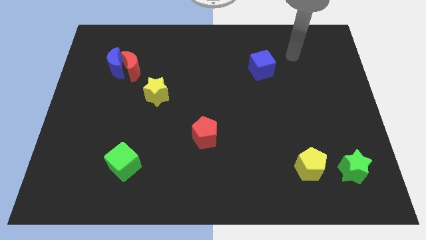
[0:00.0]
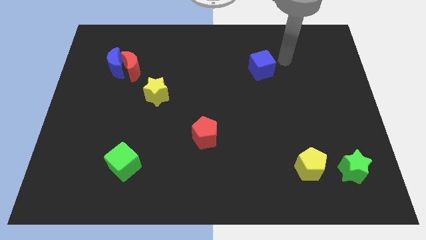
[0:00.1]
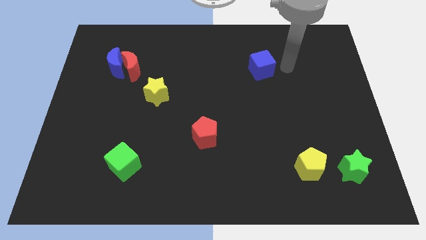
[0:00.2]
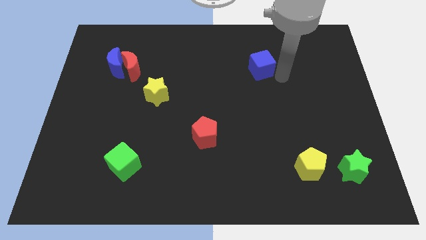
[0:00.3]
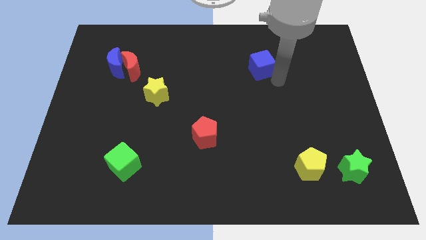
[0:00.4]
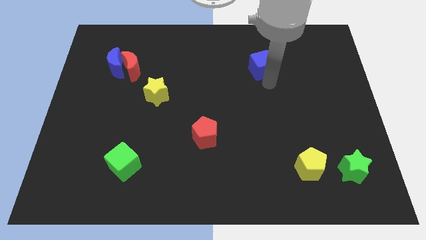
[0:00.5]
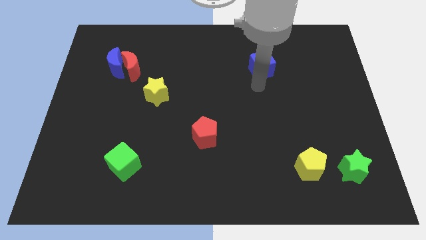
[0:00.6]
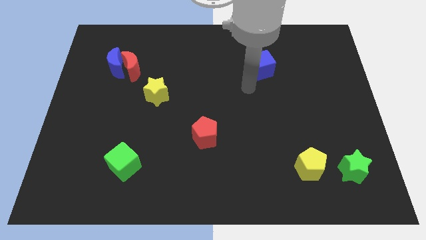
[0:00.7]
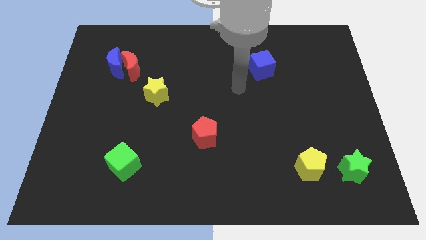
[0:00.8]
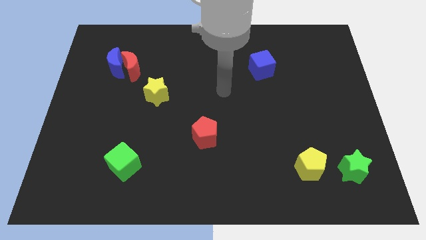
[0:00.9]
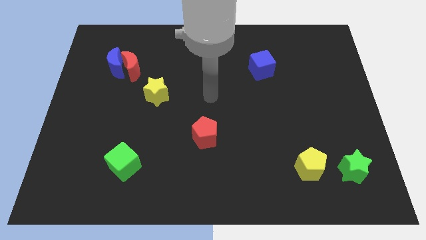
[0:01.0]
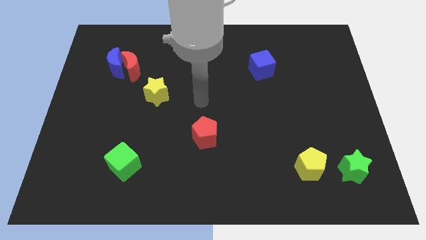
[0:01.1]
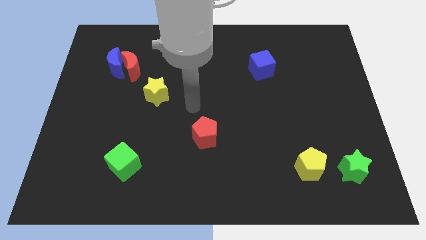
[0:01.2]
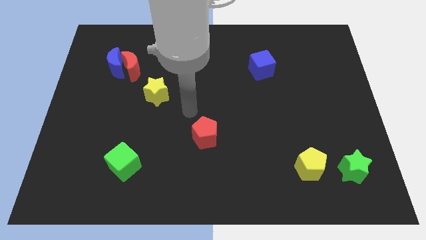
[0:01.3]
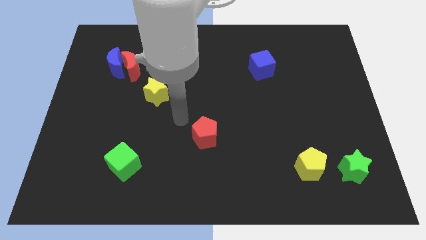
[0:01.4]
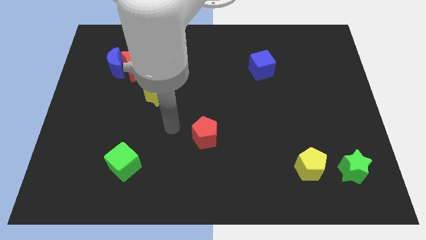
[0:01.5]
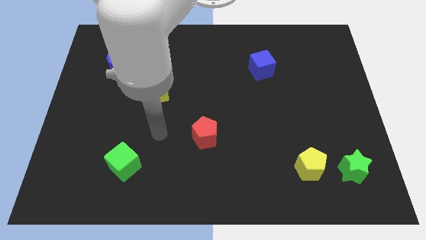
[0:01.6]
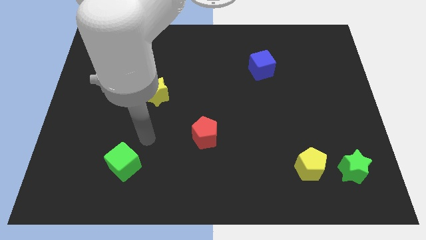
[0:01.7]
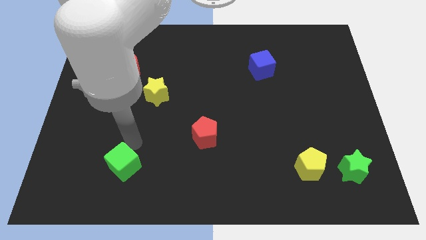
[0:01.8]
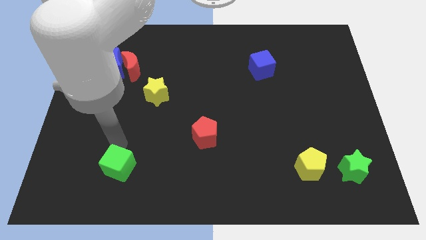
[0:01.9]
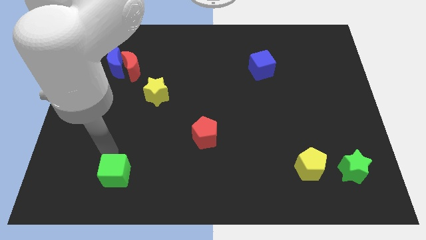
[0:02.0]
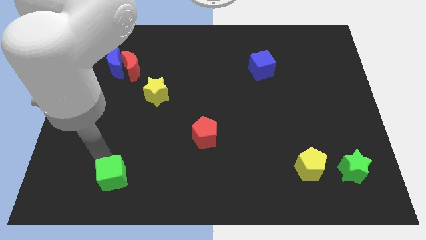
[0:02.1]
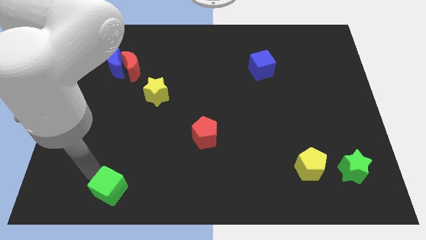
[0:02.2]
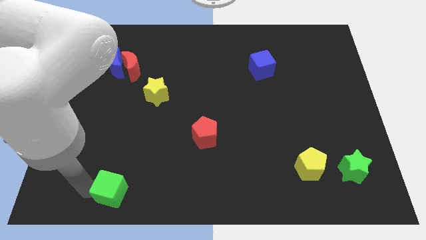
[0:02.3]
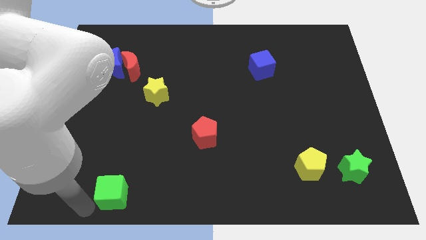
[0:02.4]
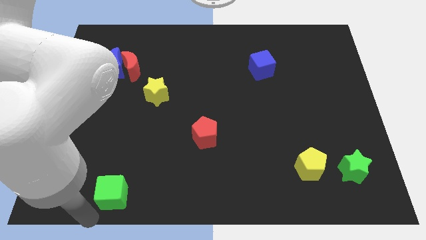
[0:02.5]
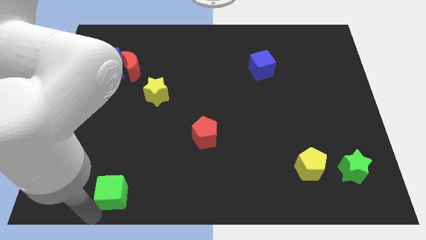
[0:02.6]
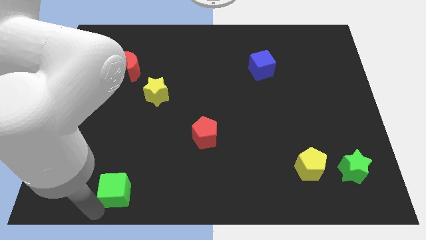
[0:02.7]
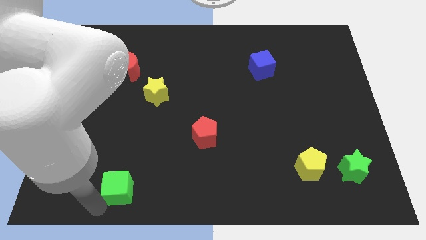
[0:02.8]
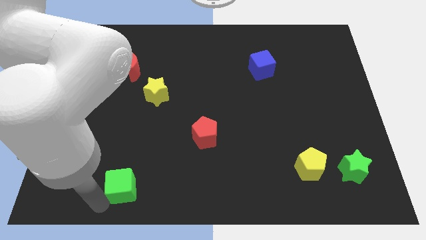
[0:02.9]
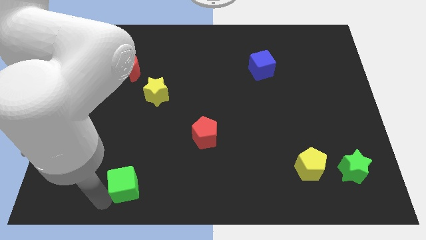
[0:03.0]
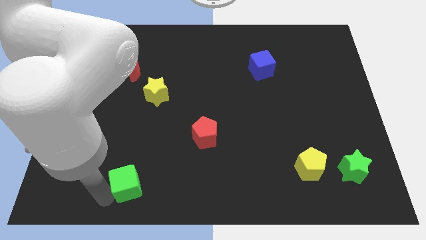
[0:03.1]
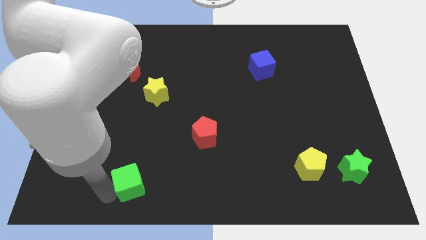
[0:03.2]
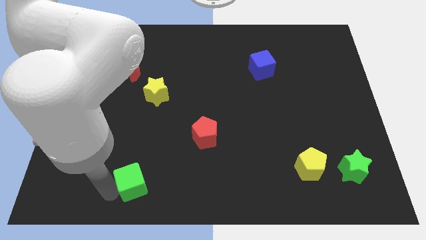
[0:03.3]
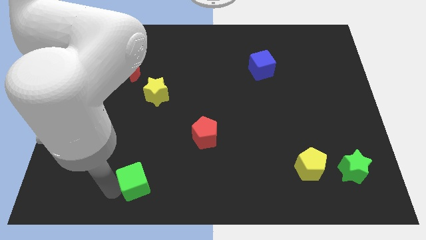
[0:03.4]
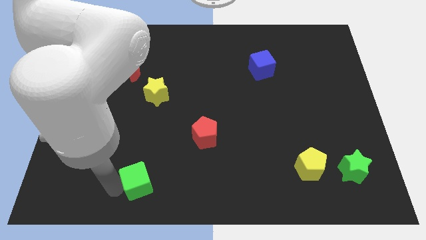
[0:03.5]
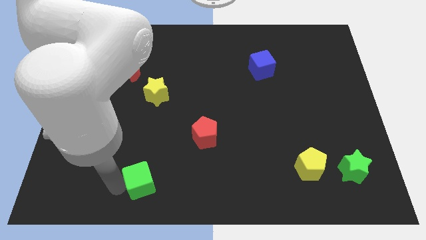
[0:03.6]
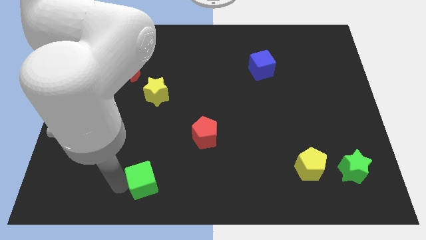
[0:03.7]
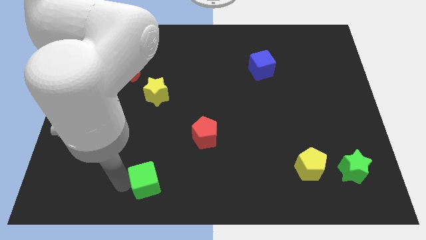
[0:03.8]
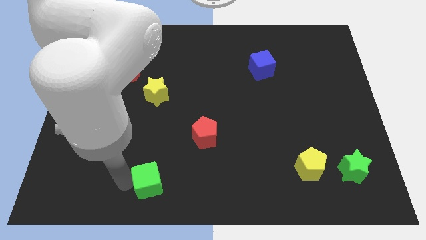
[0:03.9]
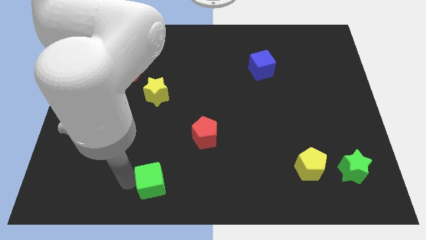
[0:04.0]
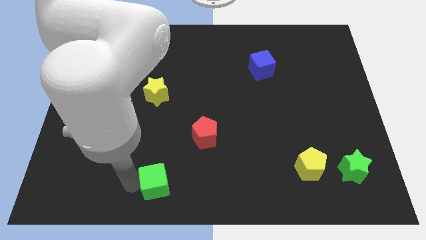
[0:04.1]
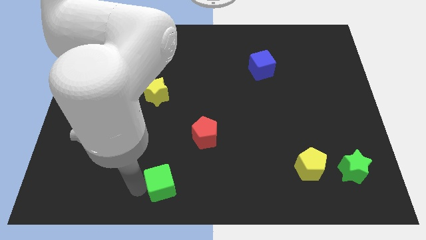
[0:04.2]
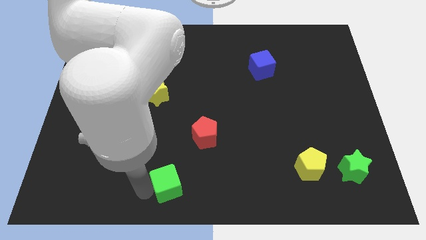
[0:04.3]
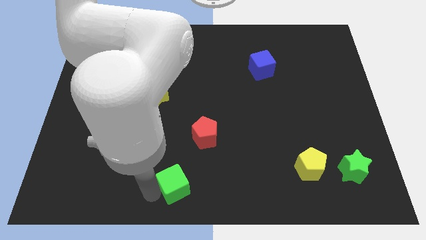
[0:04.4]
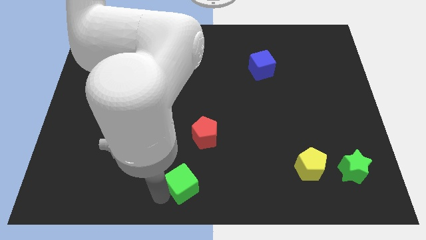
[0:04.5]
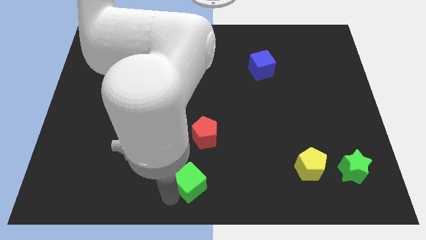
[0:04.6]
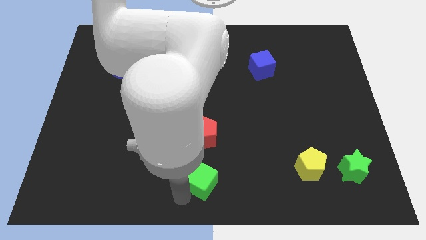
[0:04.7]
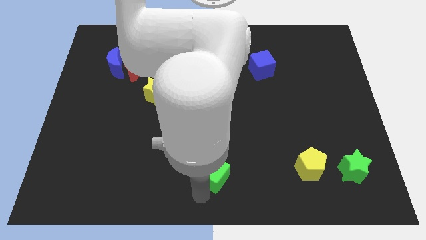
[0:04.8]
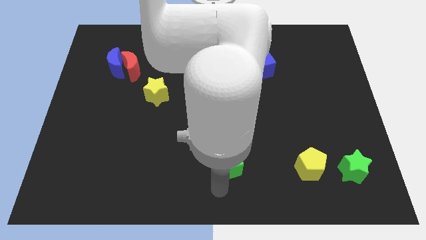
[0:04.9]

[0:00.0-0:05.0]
slide the green cube to the right

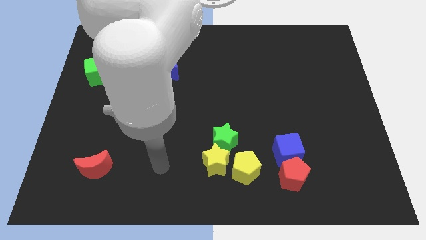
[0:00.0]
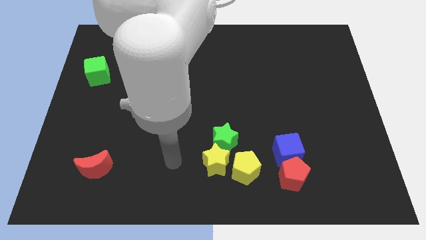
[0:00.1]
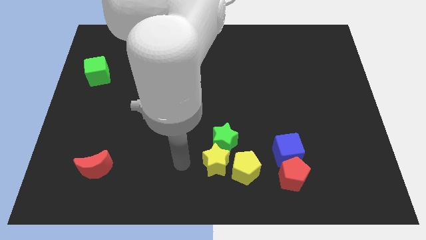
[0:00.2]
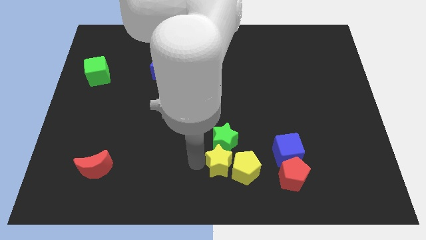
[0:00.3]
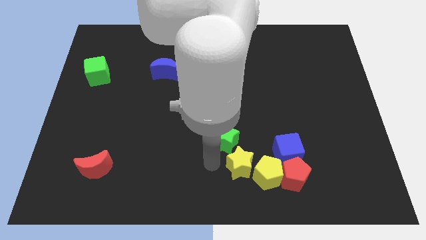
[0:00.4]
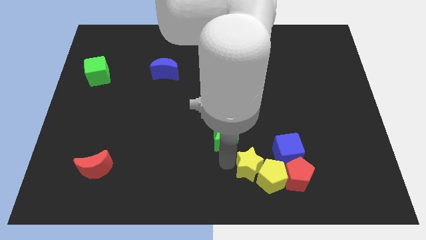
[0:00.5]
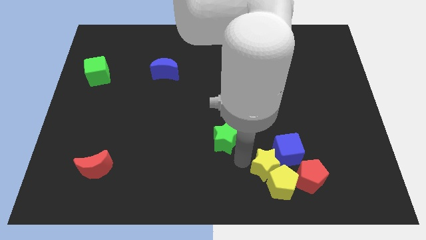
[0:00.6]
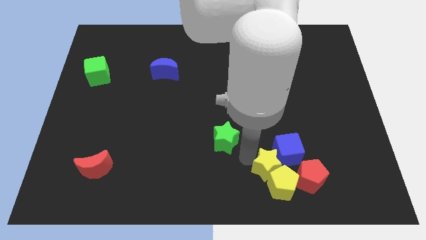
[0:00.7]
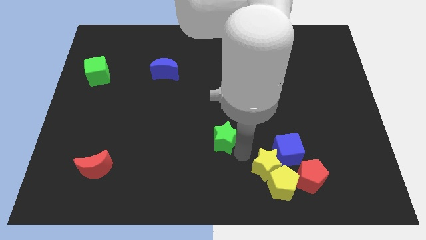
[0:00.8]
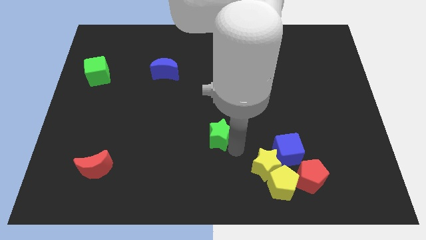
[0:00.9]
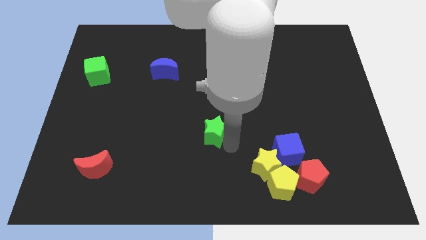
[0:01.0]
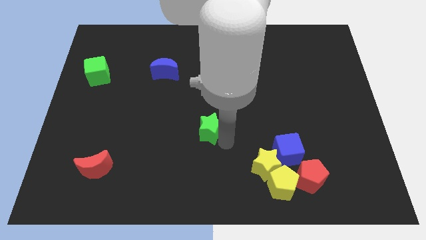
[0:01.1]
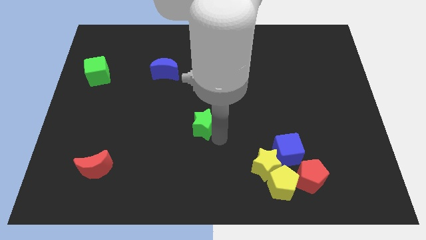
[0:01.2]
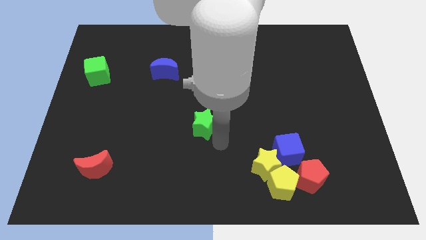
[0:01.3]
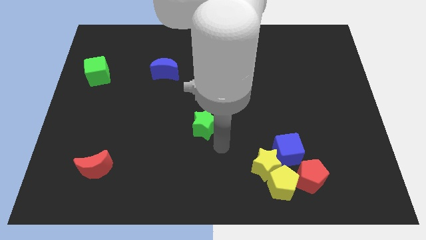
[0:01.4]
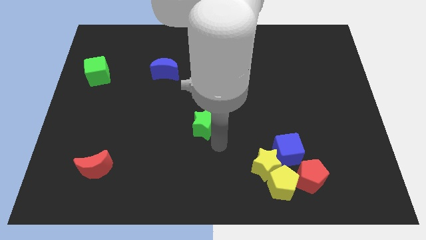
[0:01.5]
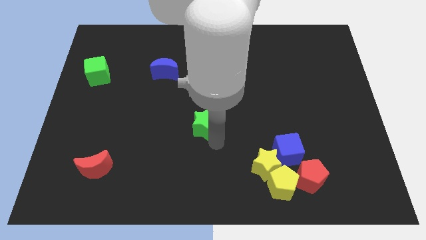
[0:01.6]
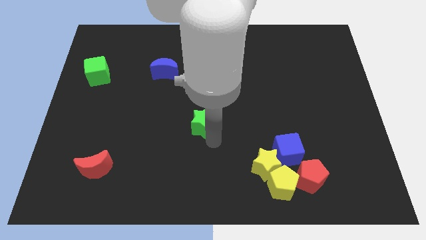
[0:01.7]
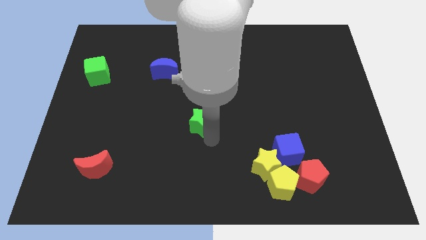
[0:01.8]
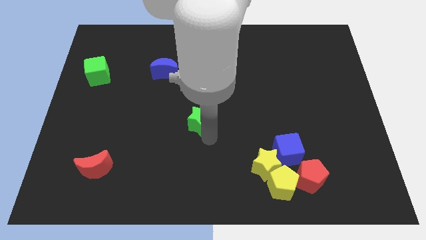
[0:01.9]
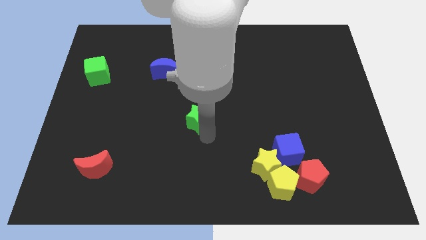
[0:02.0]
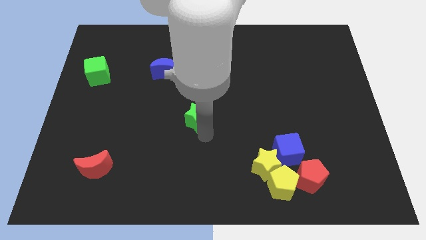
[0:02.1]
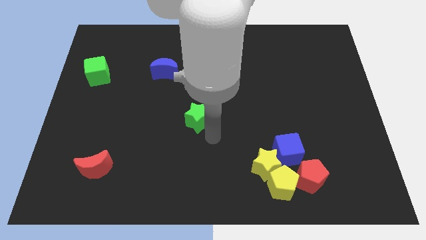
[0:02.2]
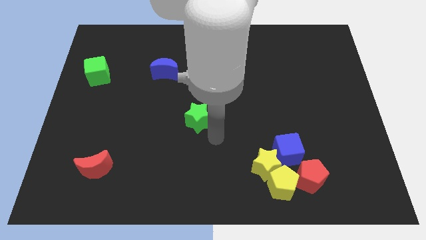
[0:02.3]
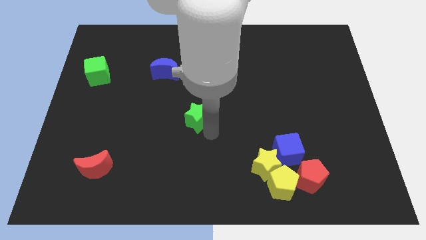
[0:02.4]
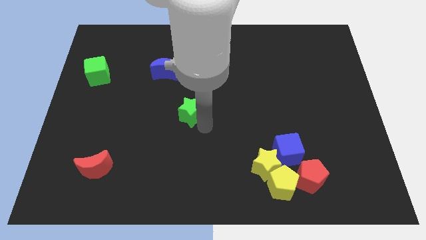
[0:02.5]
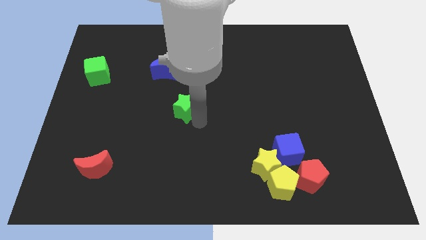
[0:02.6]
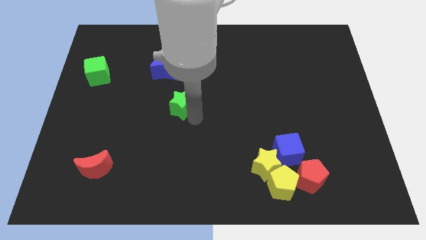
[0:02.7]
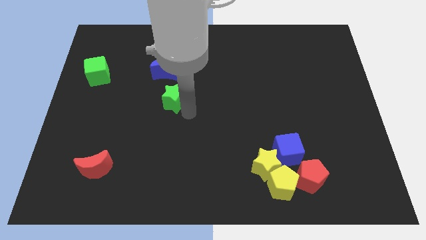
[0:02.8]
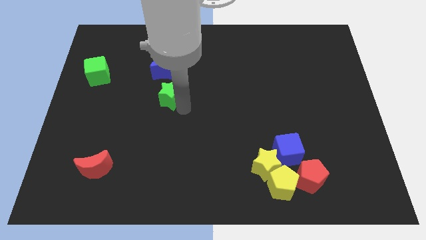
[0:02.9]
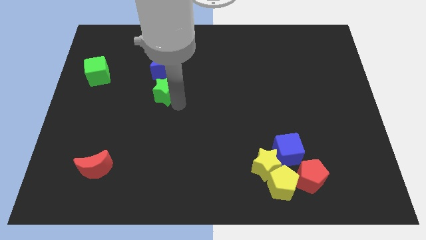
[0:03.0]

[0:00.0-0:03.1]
move the green star upwards and to the left
